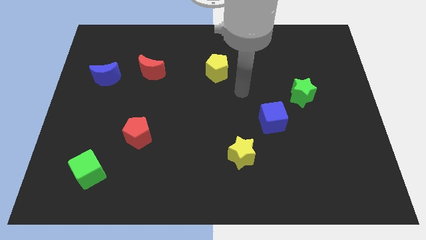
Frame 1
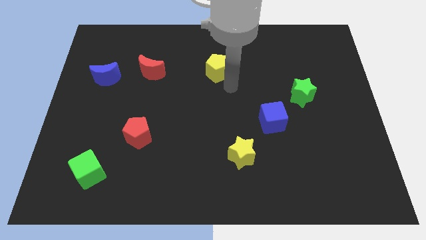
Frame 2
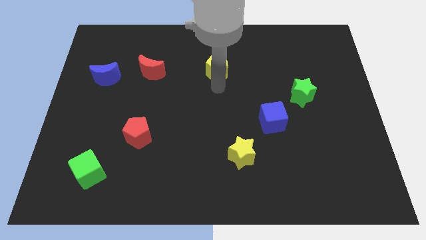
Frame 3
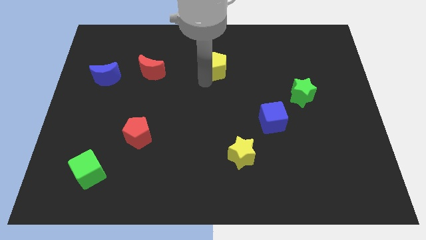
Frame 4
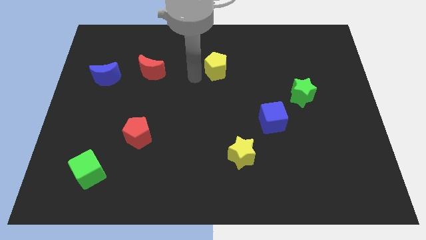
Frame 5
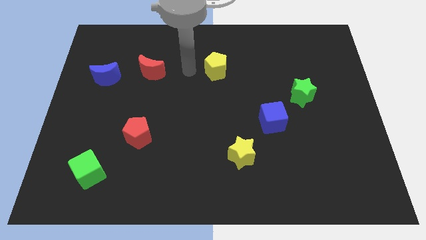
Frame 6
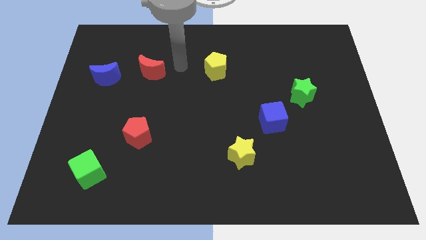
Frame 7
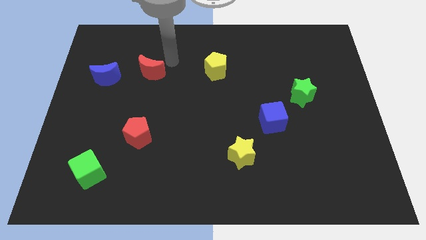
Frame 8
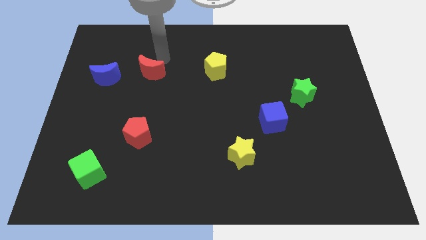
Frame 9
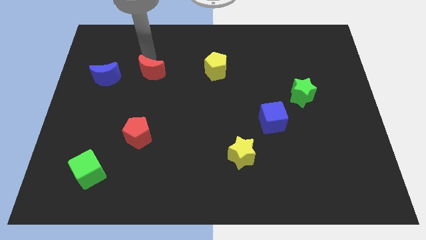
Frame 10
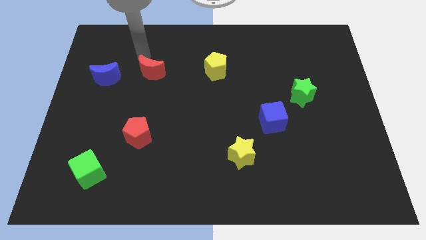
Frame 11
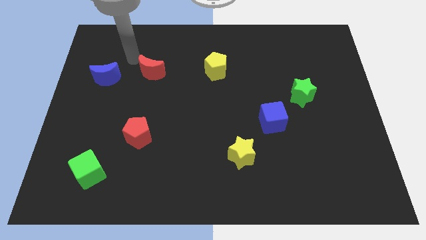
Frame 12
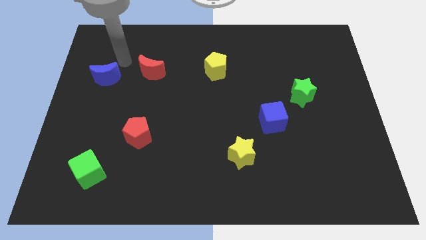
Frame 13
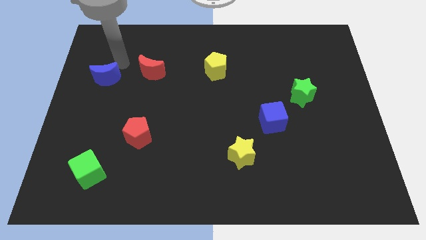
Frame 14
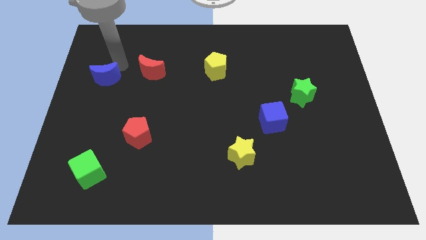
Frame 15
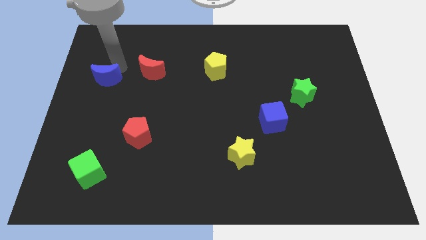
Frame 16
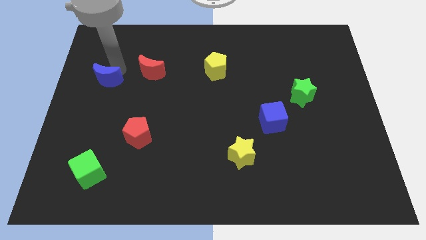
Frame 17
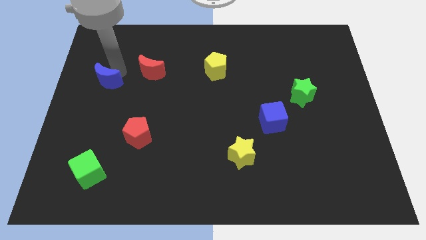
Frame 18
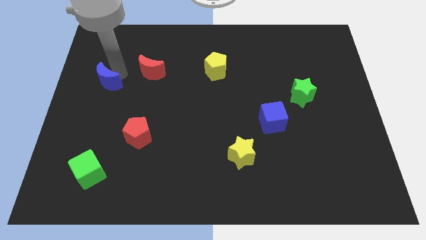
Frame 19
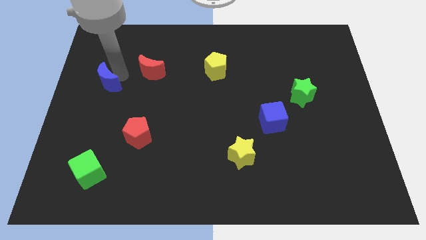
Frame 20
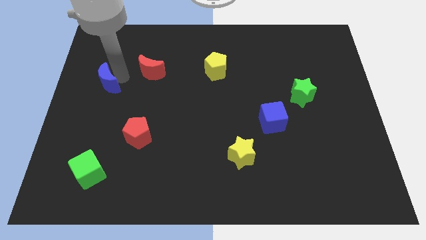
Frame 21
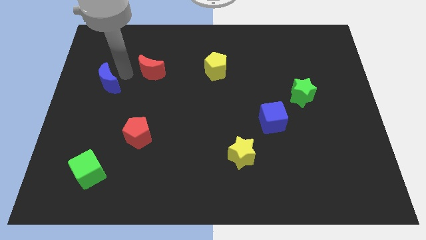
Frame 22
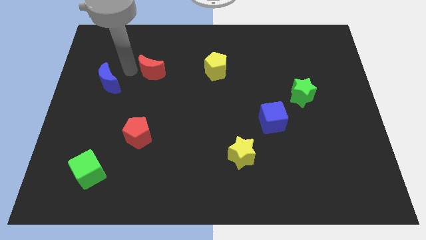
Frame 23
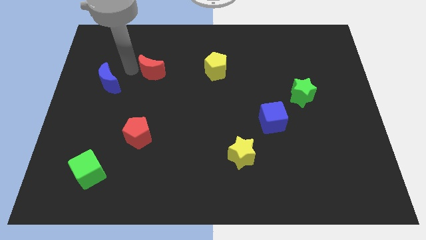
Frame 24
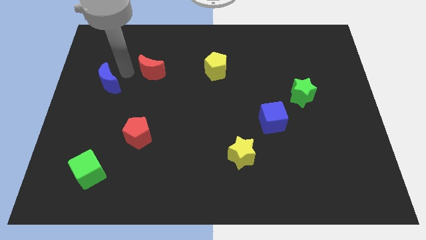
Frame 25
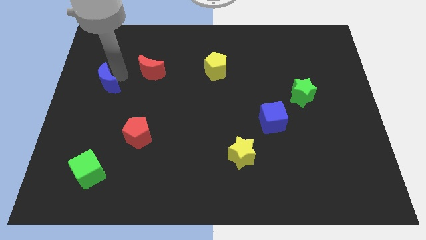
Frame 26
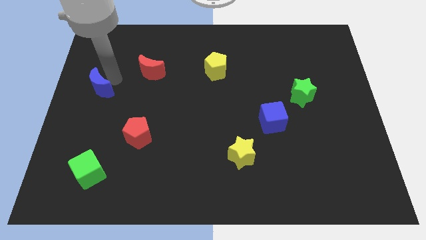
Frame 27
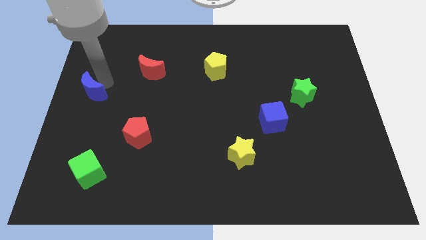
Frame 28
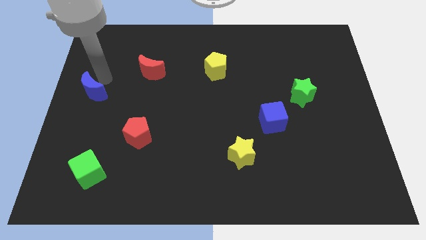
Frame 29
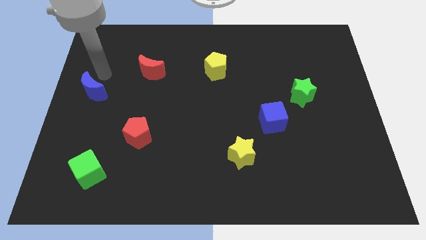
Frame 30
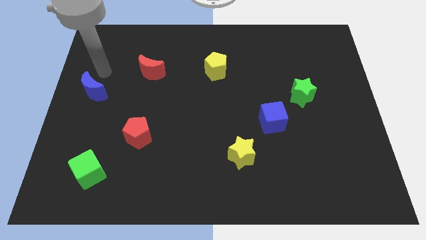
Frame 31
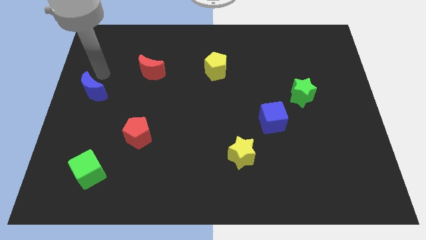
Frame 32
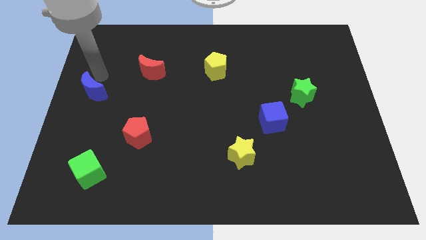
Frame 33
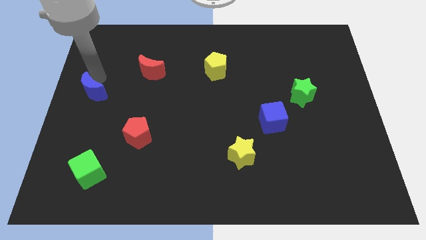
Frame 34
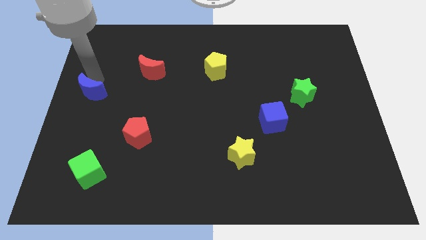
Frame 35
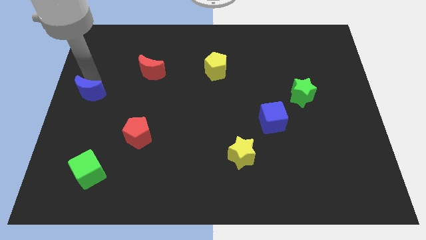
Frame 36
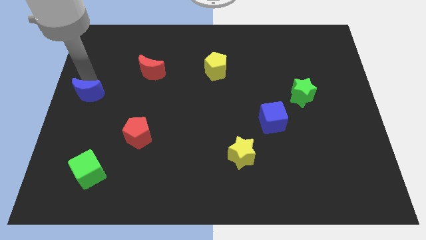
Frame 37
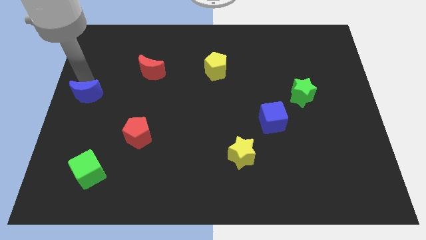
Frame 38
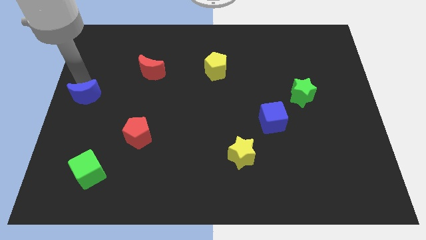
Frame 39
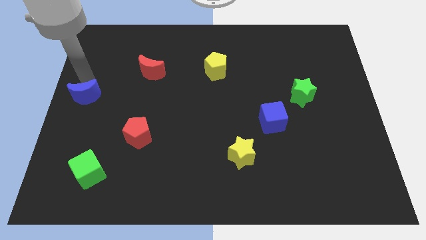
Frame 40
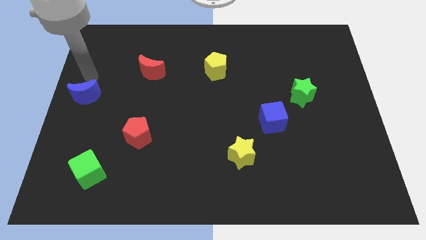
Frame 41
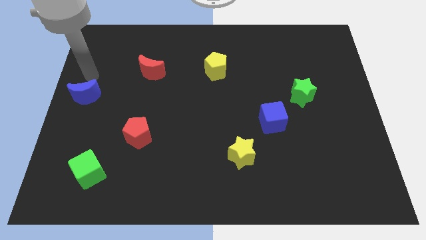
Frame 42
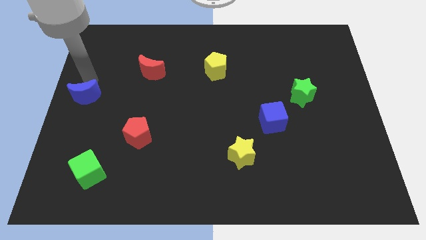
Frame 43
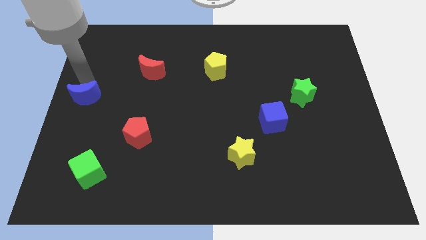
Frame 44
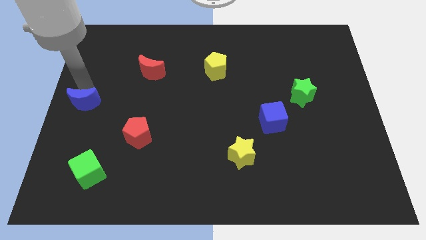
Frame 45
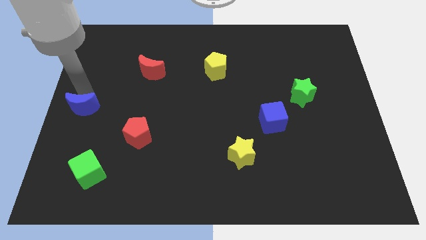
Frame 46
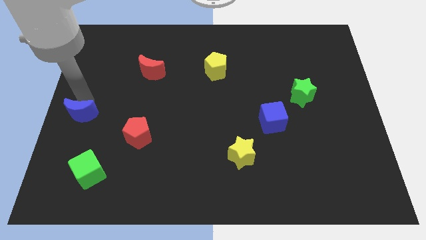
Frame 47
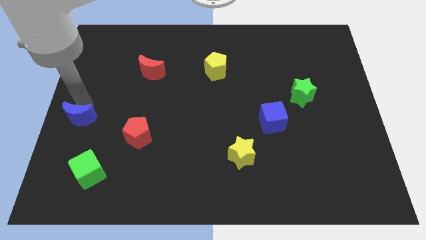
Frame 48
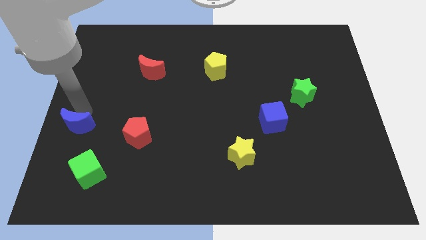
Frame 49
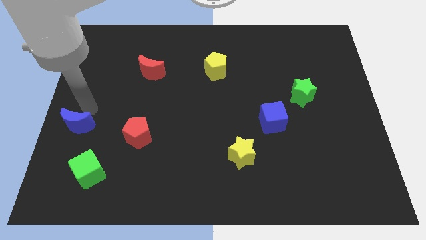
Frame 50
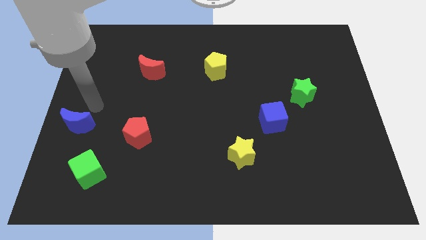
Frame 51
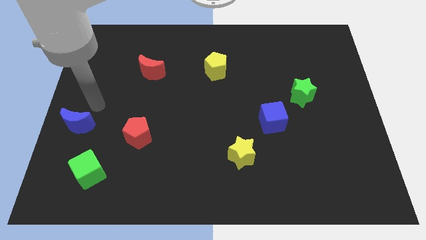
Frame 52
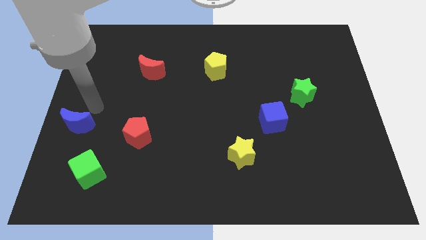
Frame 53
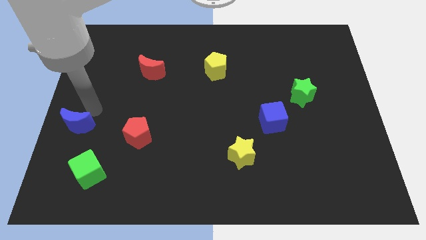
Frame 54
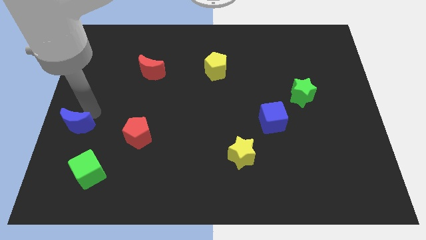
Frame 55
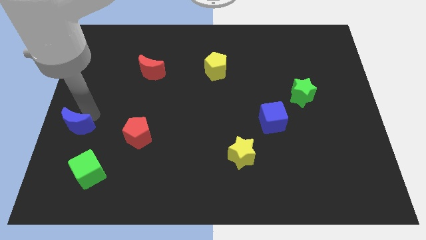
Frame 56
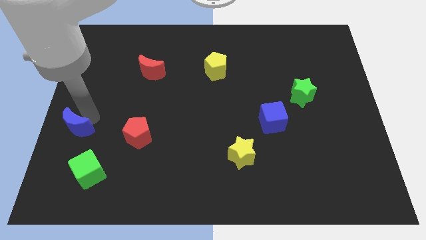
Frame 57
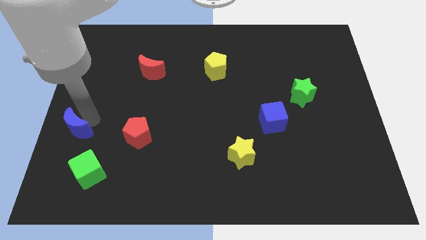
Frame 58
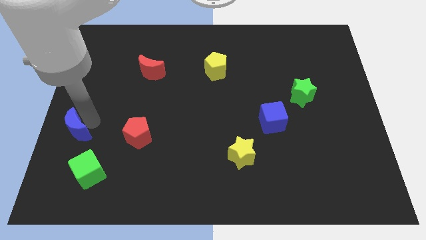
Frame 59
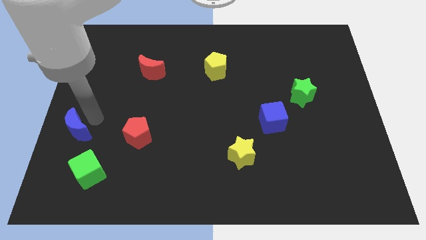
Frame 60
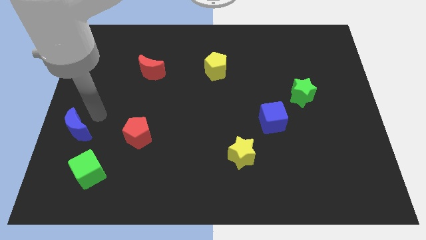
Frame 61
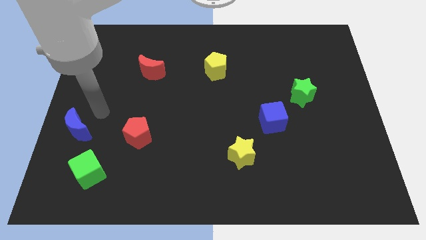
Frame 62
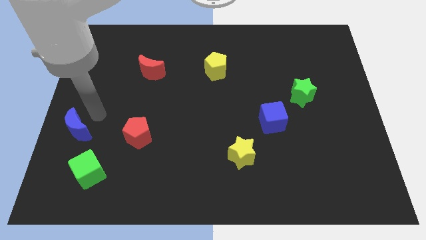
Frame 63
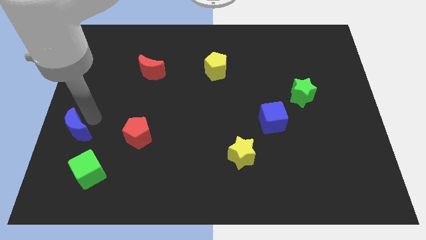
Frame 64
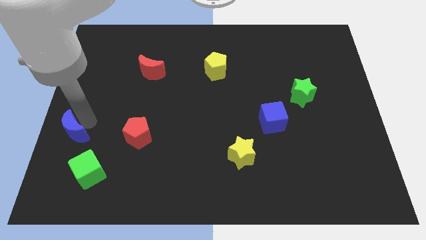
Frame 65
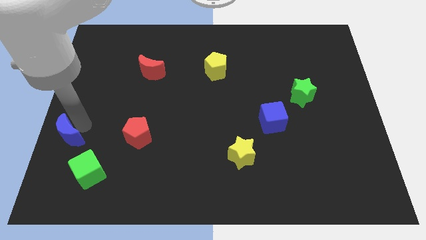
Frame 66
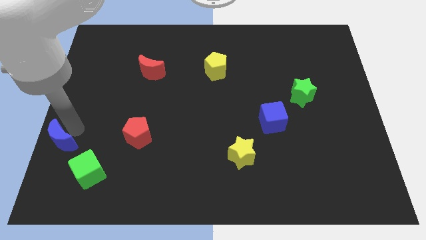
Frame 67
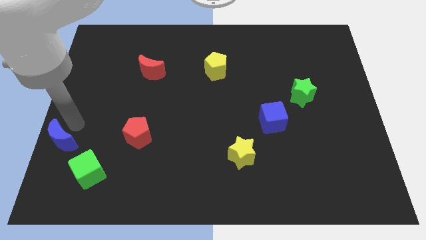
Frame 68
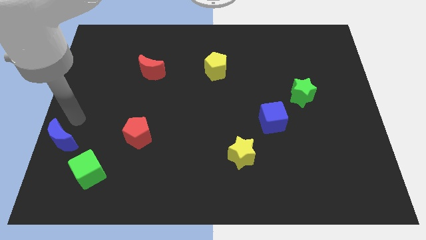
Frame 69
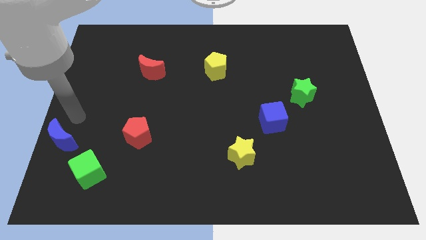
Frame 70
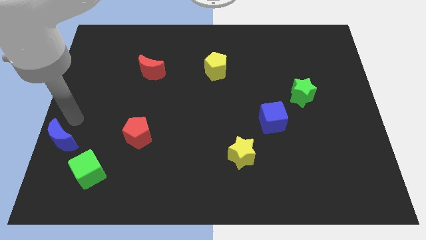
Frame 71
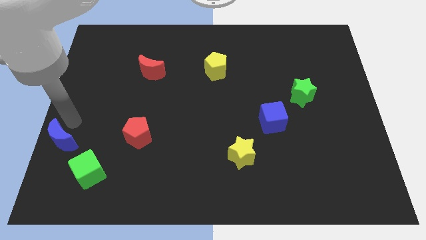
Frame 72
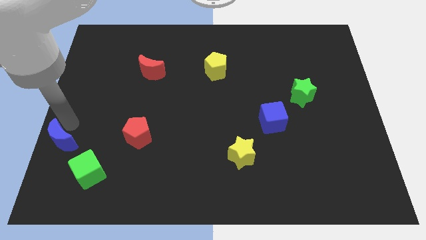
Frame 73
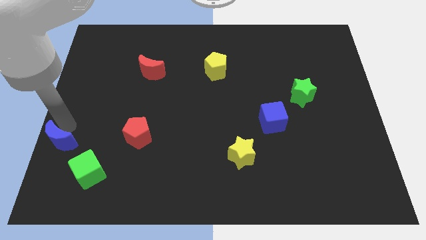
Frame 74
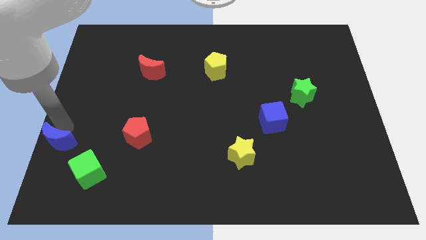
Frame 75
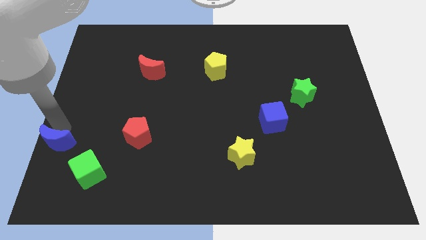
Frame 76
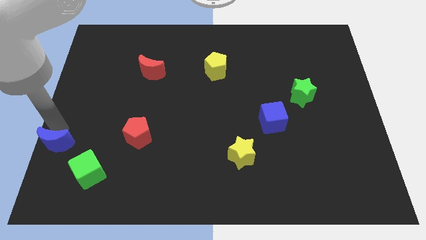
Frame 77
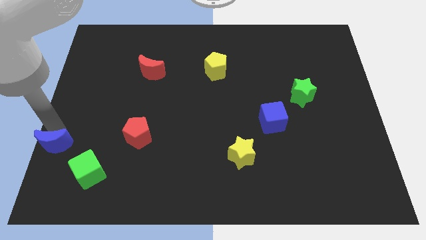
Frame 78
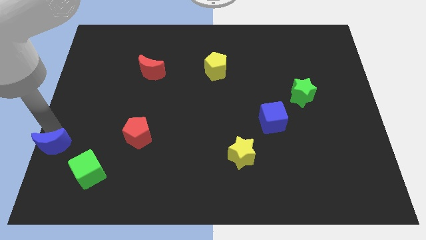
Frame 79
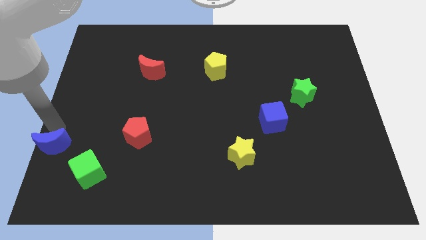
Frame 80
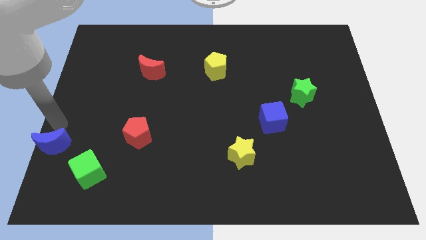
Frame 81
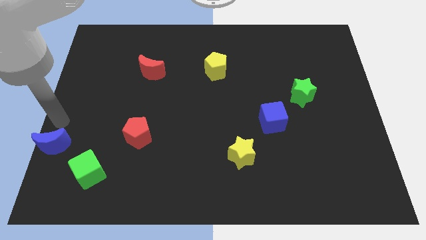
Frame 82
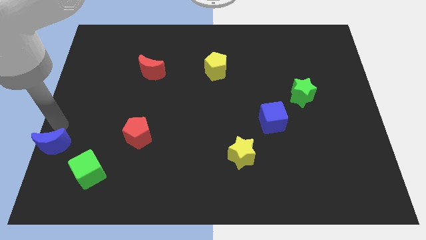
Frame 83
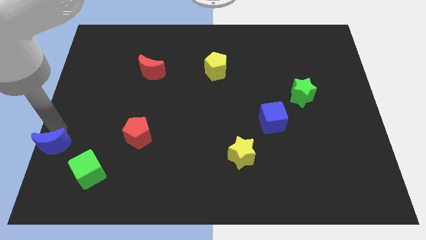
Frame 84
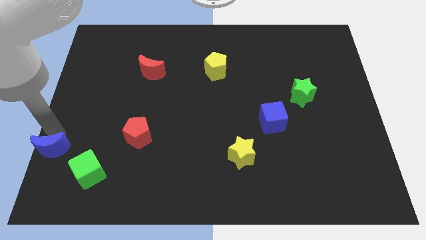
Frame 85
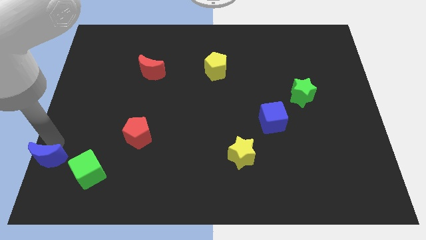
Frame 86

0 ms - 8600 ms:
push the blue moon to the lower left corner
